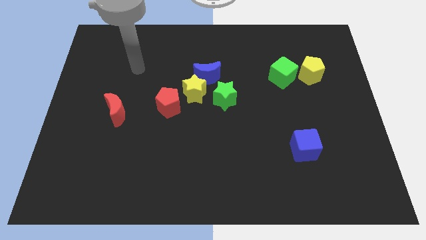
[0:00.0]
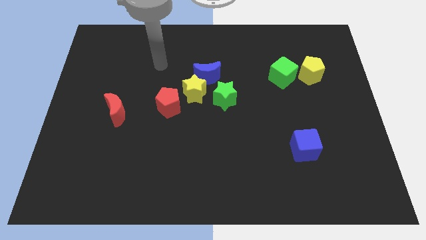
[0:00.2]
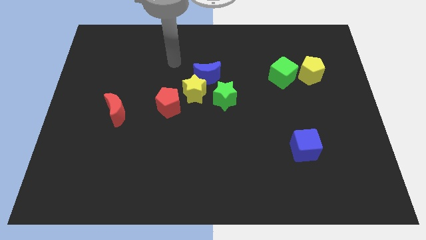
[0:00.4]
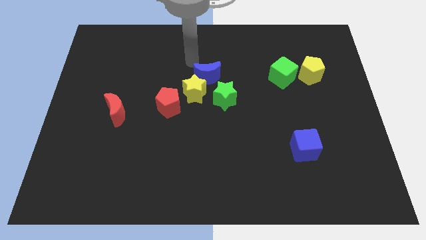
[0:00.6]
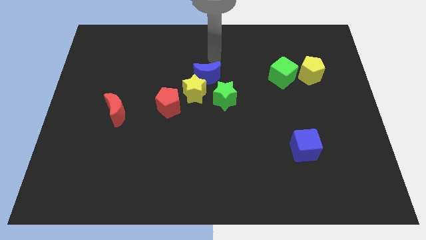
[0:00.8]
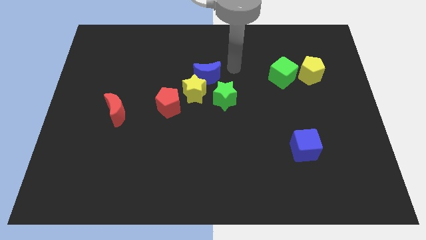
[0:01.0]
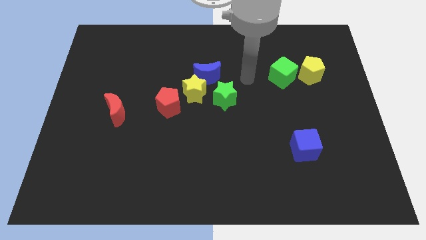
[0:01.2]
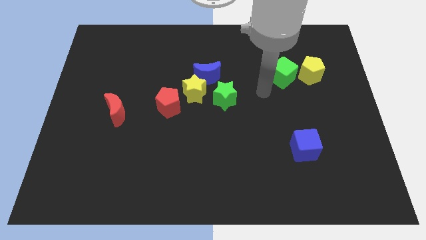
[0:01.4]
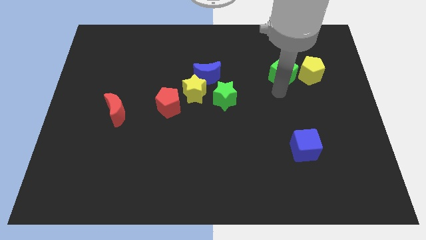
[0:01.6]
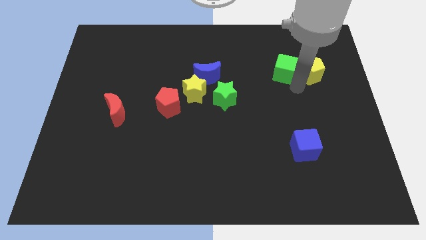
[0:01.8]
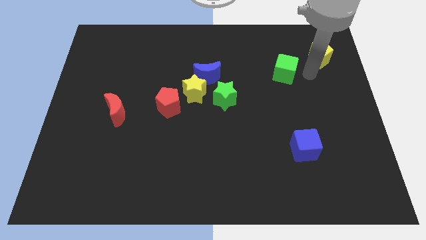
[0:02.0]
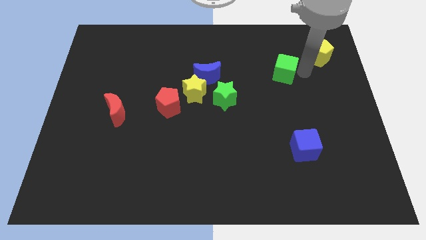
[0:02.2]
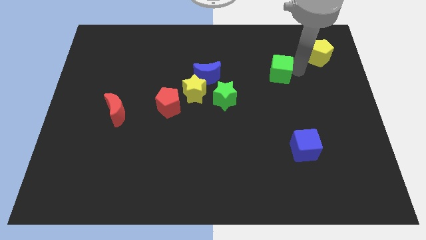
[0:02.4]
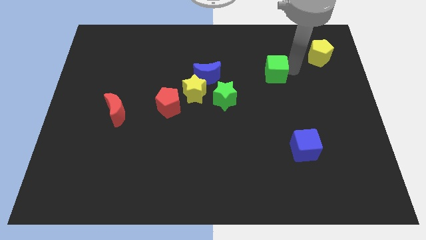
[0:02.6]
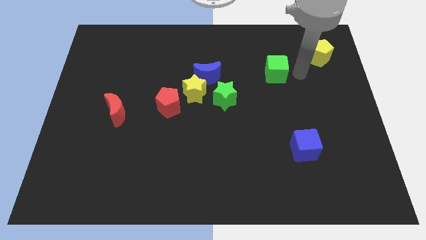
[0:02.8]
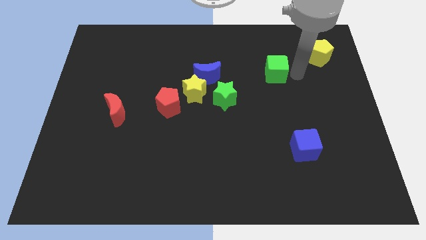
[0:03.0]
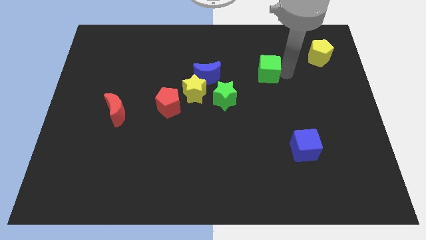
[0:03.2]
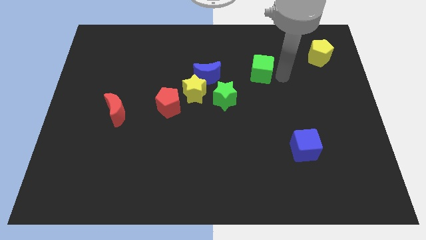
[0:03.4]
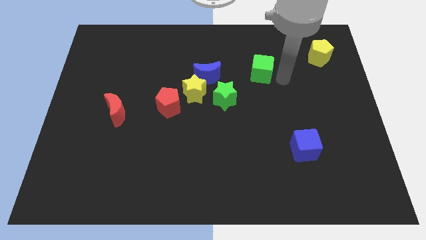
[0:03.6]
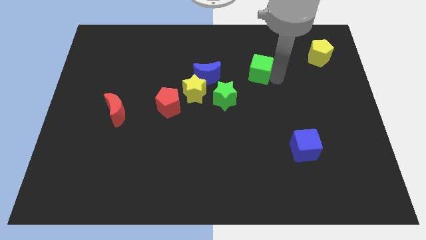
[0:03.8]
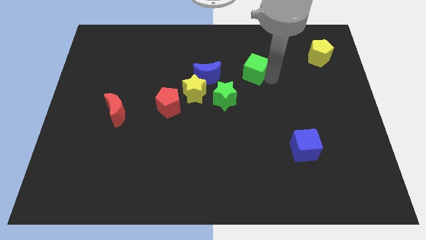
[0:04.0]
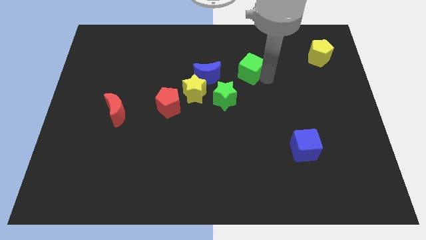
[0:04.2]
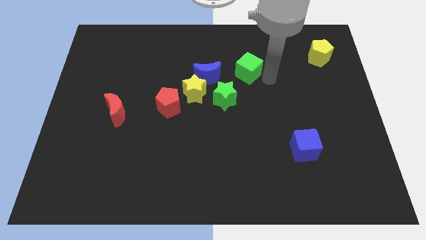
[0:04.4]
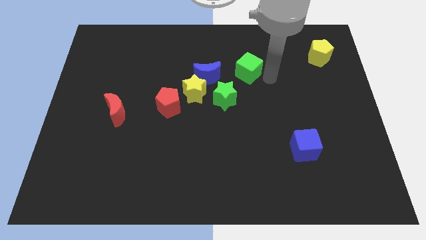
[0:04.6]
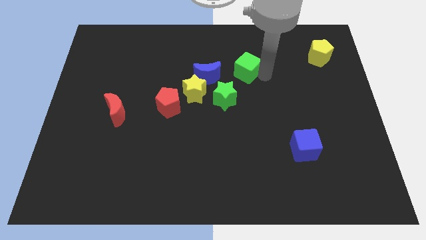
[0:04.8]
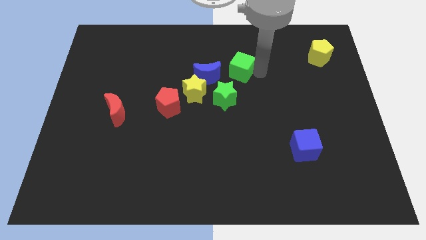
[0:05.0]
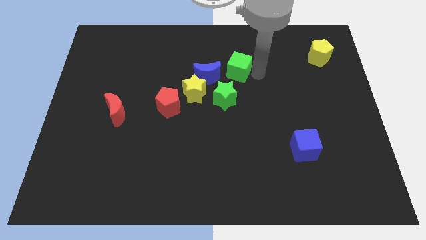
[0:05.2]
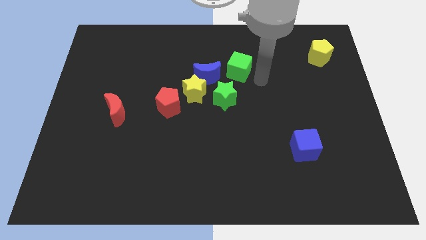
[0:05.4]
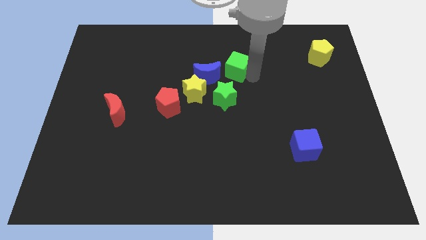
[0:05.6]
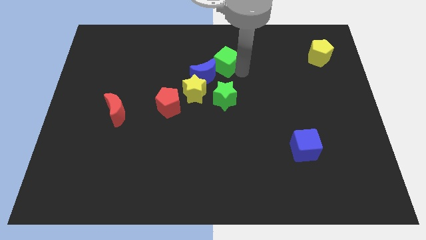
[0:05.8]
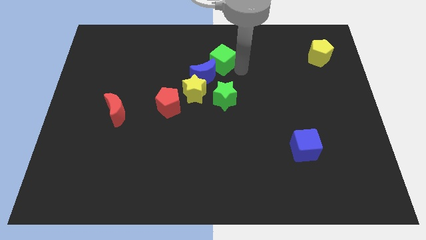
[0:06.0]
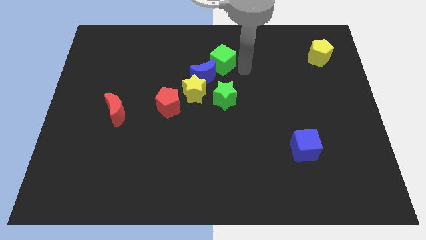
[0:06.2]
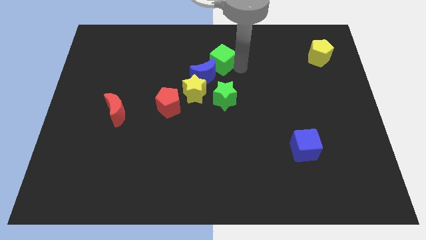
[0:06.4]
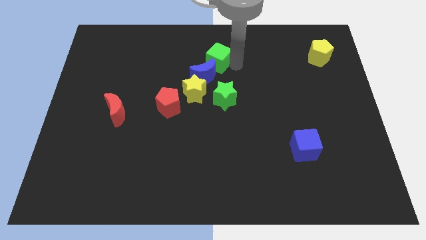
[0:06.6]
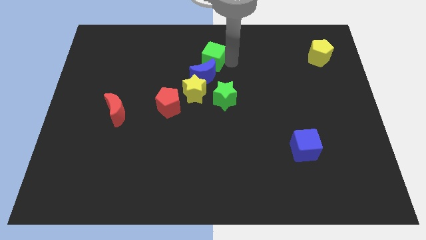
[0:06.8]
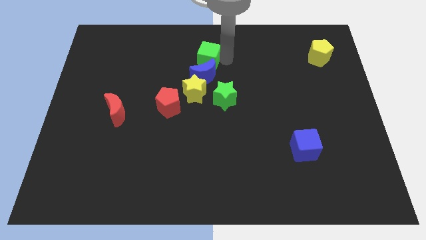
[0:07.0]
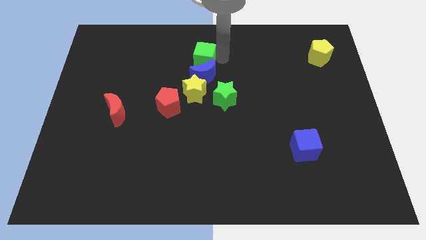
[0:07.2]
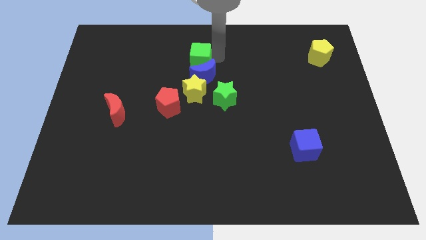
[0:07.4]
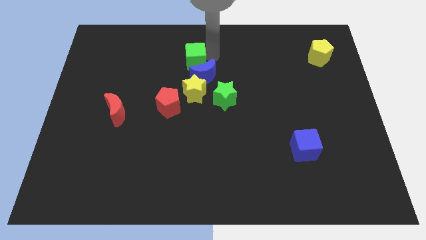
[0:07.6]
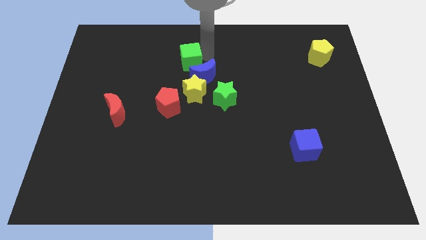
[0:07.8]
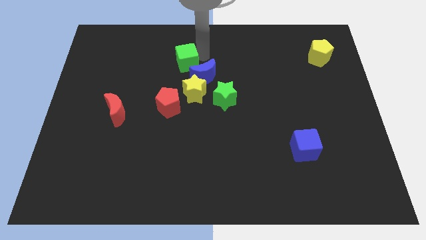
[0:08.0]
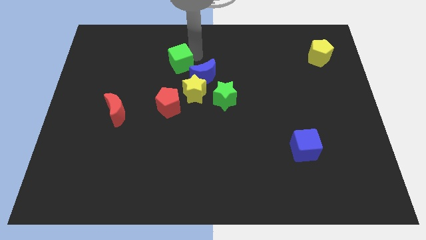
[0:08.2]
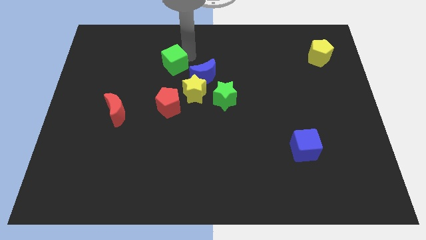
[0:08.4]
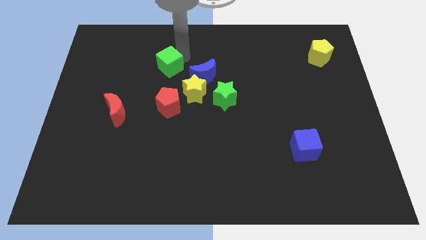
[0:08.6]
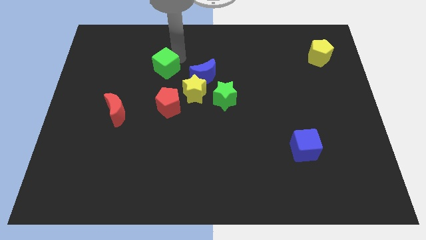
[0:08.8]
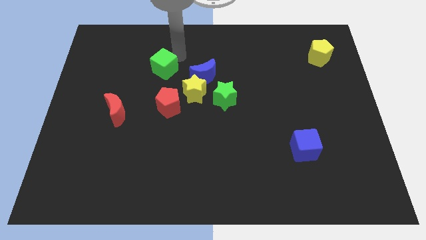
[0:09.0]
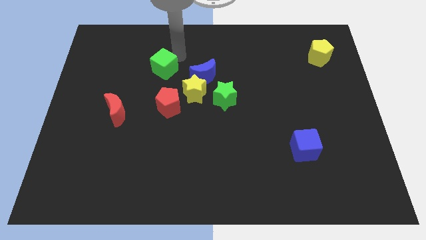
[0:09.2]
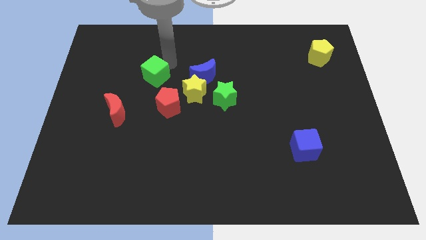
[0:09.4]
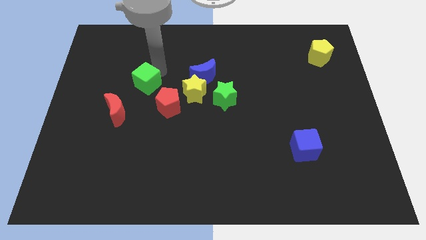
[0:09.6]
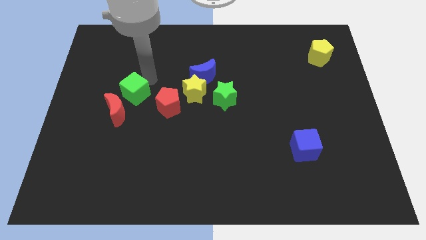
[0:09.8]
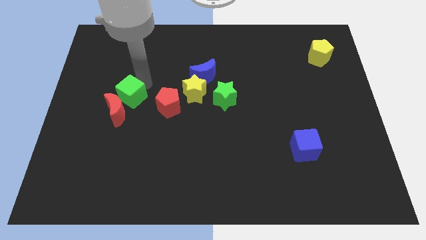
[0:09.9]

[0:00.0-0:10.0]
slide the green cube next to the red moon

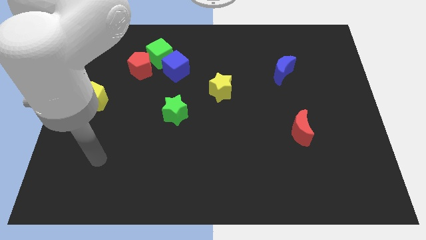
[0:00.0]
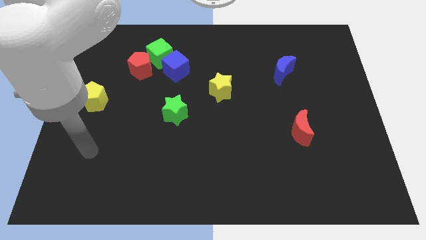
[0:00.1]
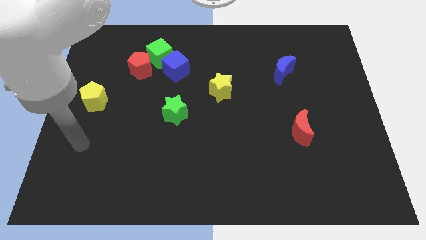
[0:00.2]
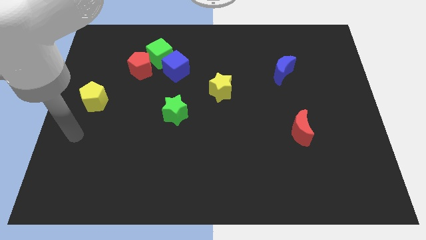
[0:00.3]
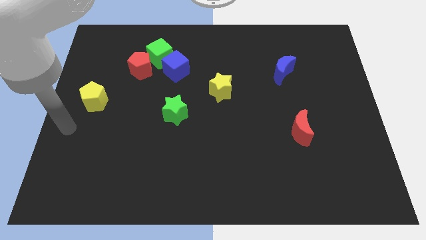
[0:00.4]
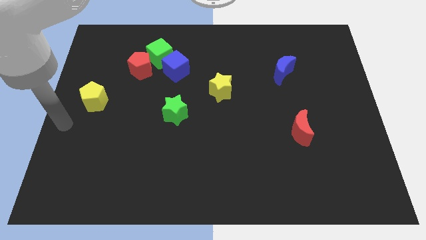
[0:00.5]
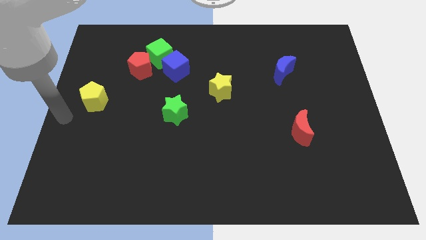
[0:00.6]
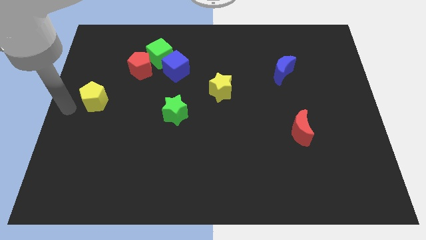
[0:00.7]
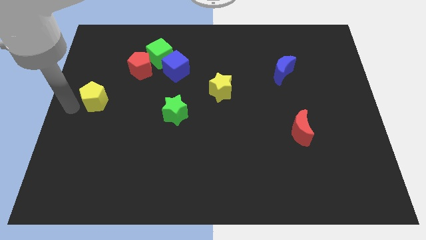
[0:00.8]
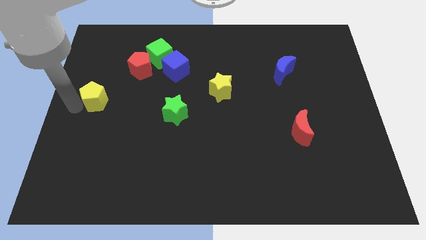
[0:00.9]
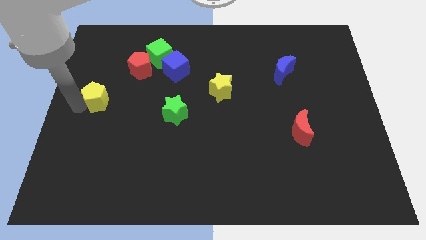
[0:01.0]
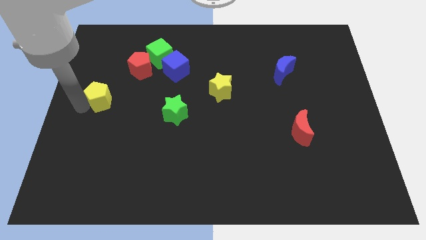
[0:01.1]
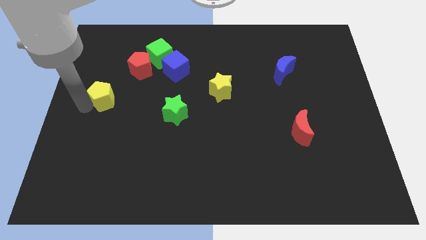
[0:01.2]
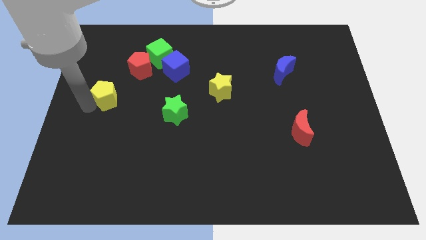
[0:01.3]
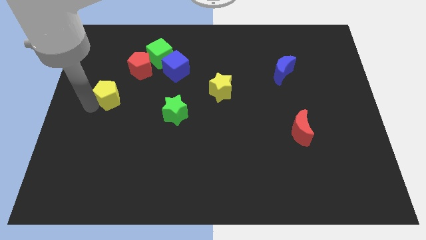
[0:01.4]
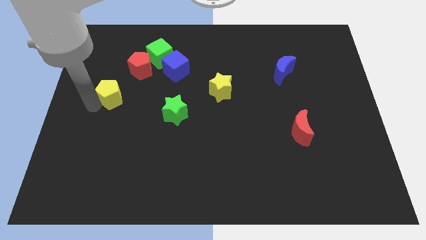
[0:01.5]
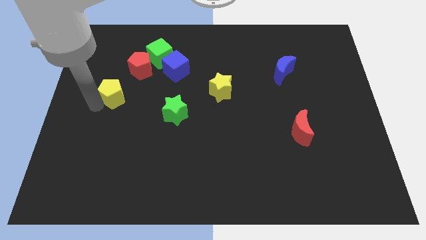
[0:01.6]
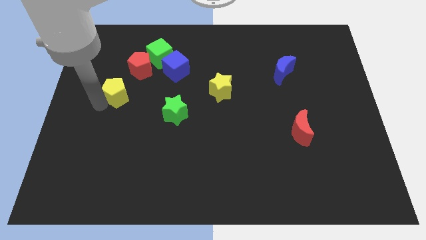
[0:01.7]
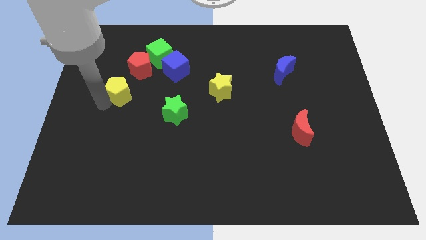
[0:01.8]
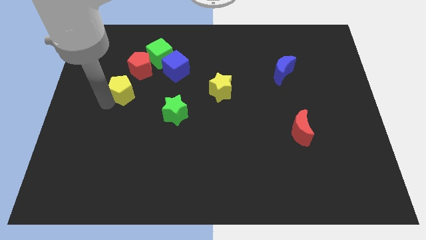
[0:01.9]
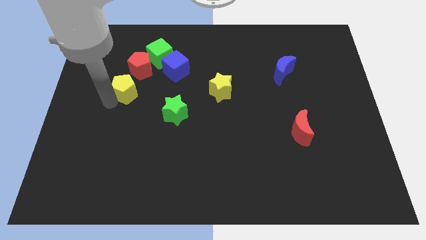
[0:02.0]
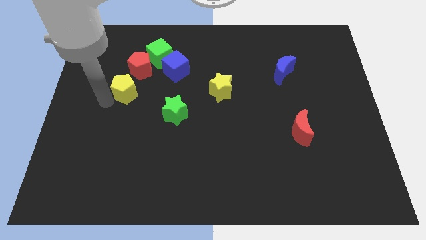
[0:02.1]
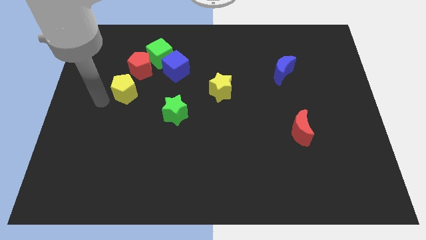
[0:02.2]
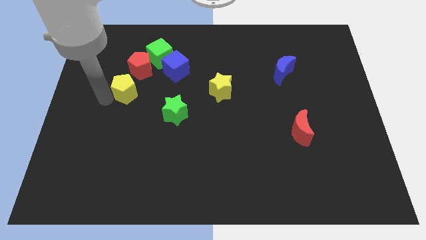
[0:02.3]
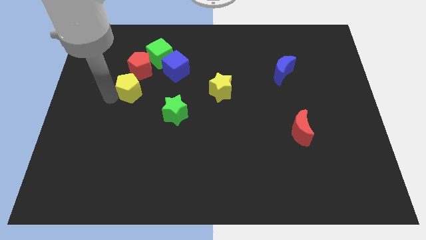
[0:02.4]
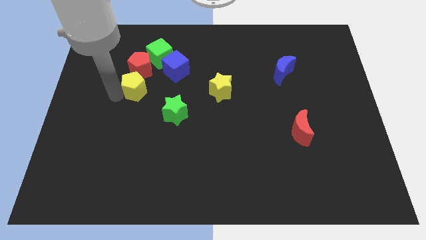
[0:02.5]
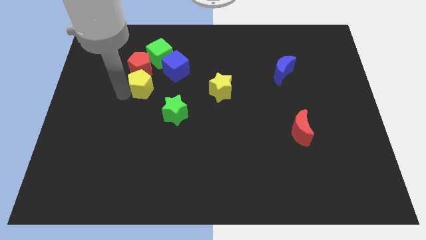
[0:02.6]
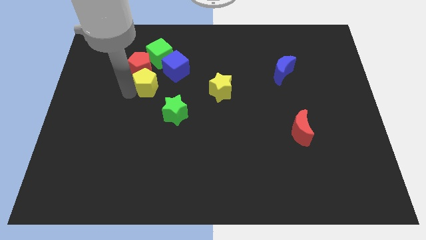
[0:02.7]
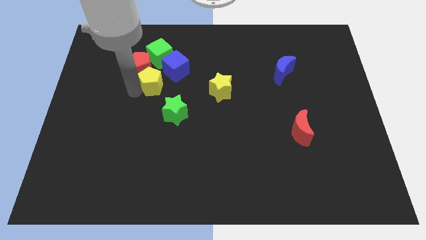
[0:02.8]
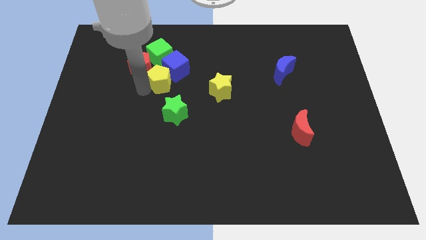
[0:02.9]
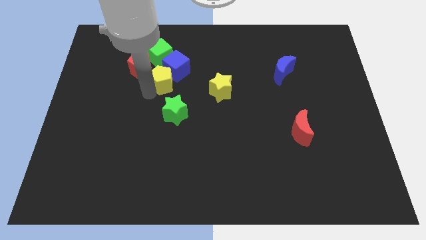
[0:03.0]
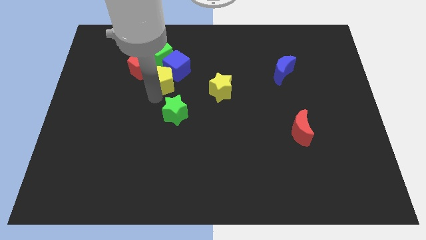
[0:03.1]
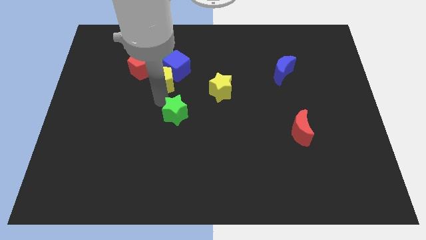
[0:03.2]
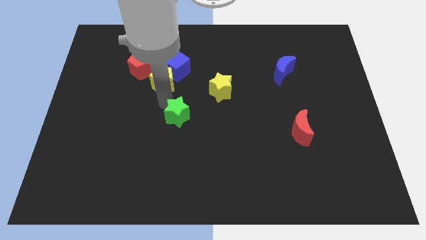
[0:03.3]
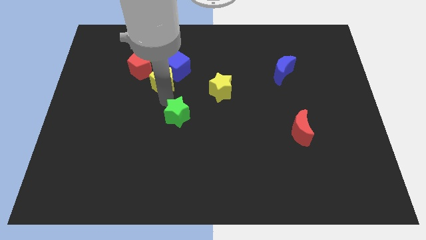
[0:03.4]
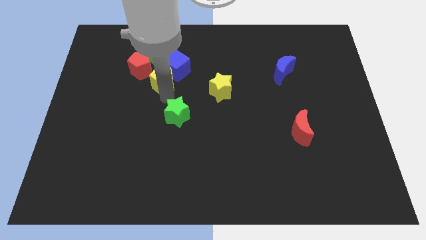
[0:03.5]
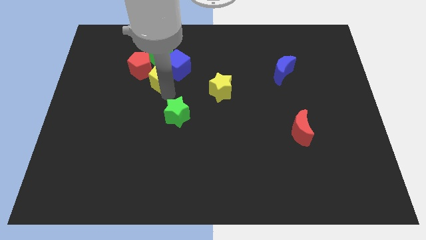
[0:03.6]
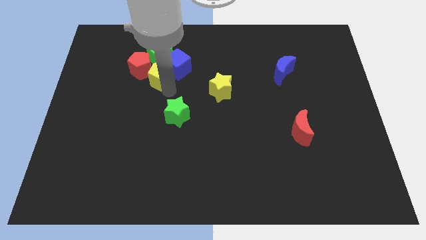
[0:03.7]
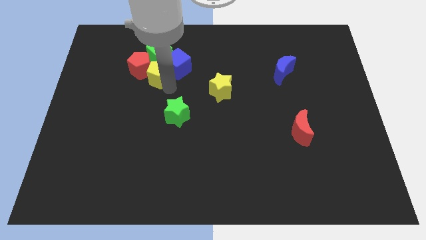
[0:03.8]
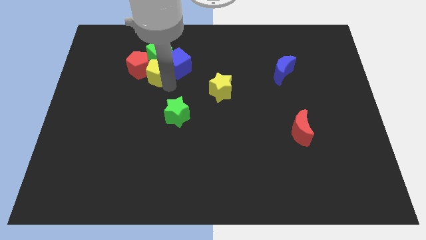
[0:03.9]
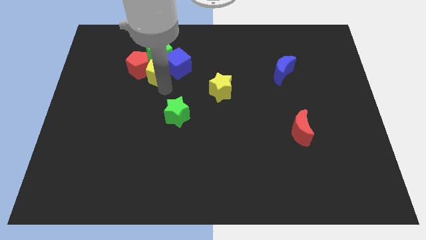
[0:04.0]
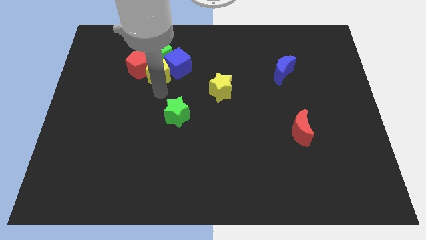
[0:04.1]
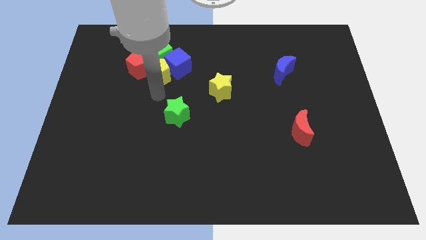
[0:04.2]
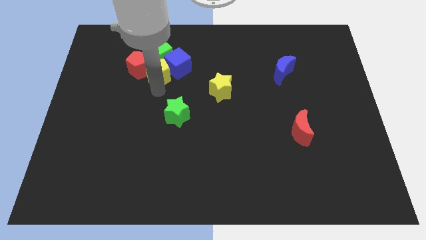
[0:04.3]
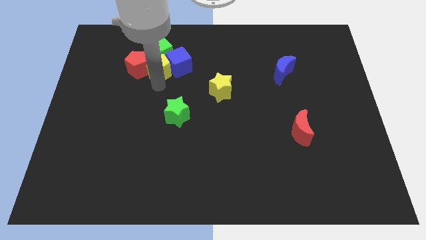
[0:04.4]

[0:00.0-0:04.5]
slide the yellow pentagon close to the green cube
